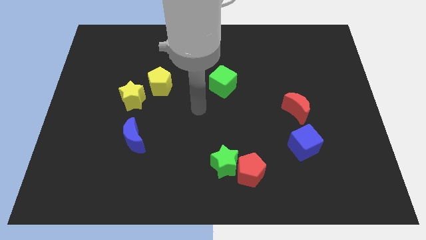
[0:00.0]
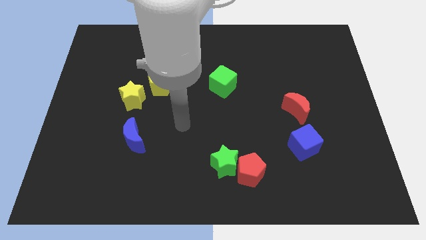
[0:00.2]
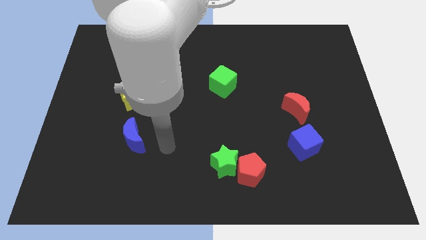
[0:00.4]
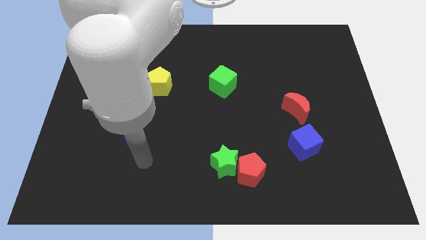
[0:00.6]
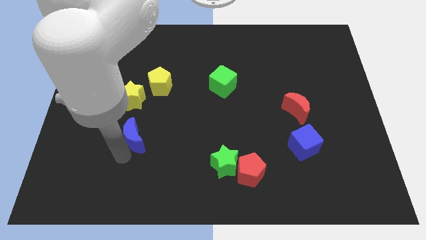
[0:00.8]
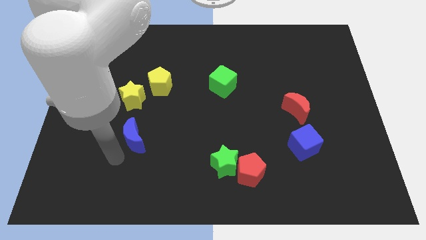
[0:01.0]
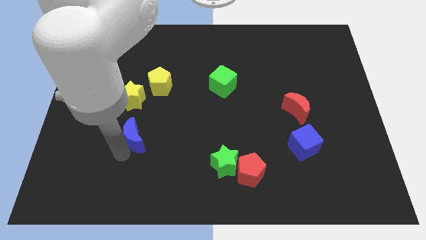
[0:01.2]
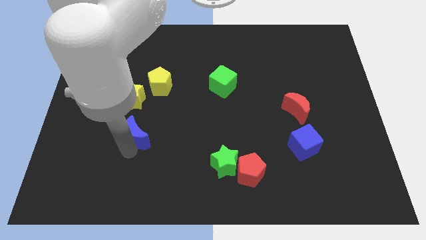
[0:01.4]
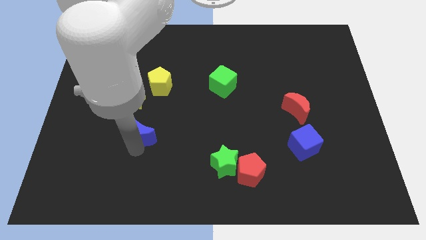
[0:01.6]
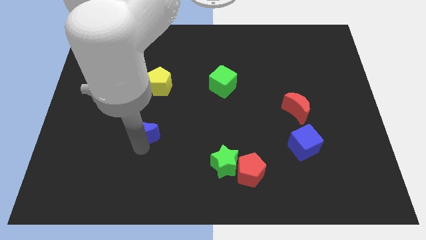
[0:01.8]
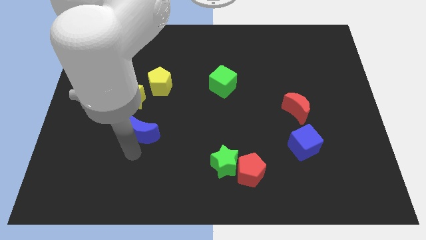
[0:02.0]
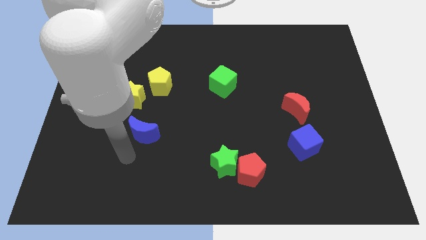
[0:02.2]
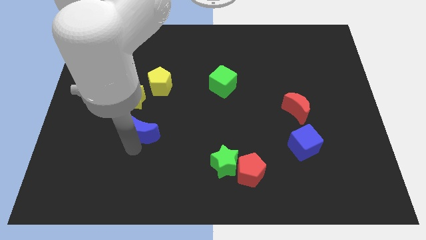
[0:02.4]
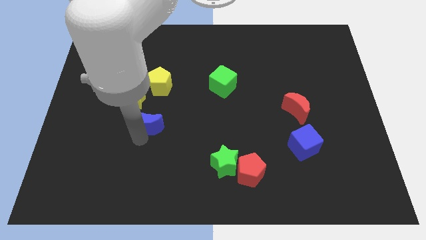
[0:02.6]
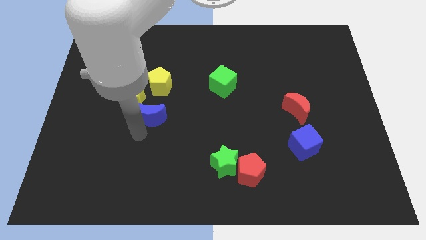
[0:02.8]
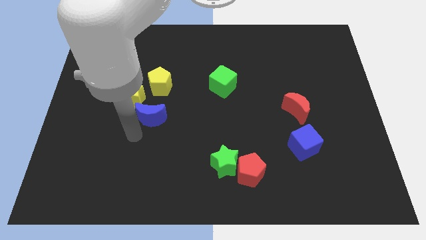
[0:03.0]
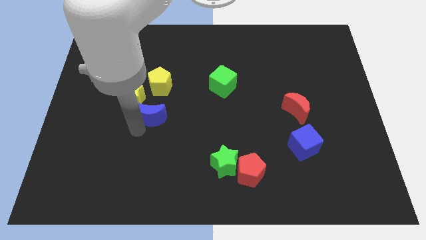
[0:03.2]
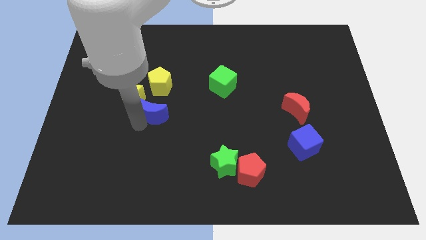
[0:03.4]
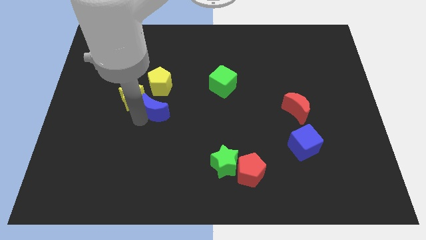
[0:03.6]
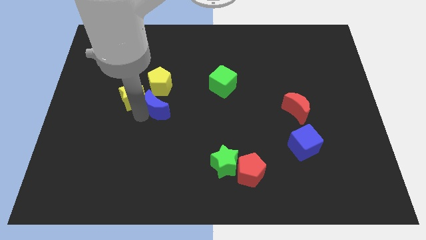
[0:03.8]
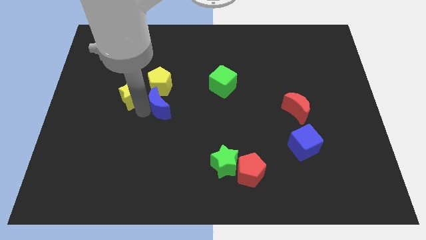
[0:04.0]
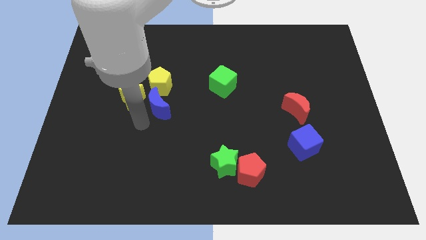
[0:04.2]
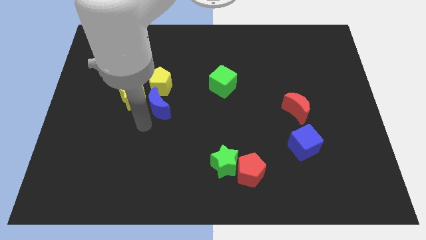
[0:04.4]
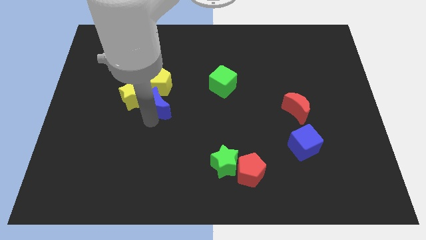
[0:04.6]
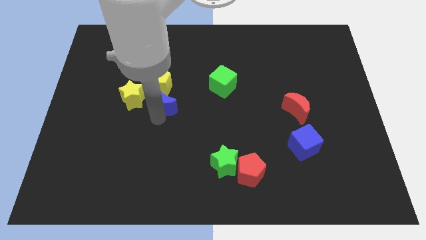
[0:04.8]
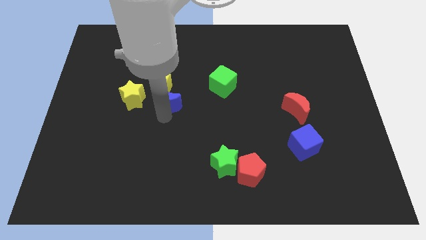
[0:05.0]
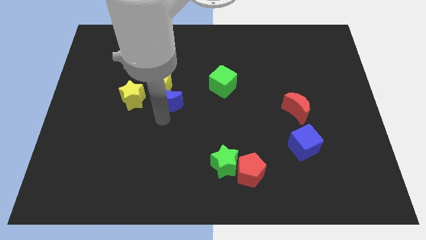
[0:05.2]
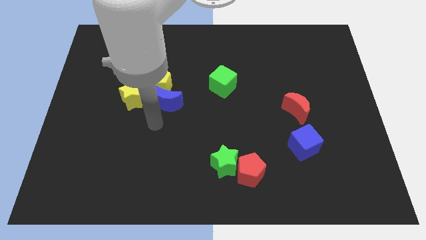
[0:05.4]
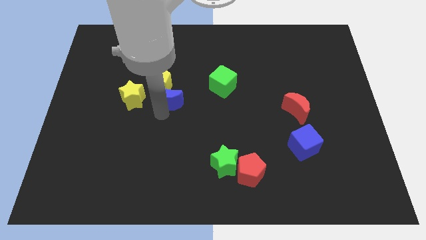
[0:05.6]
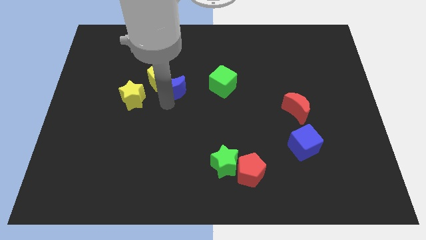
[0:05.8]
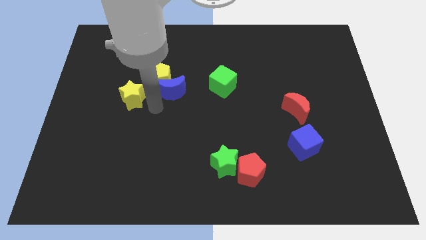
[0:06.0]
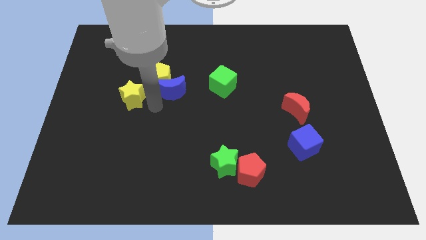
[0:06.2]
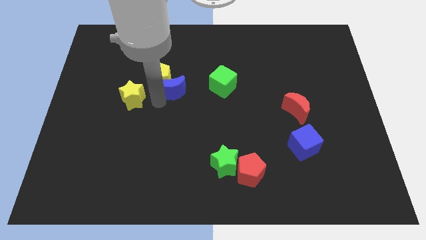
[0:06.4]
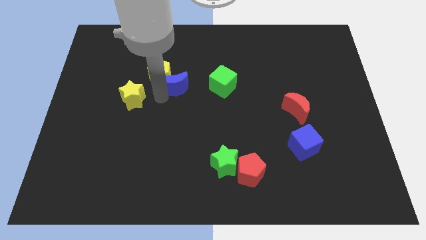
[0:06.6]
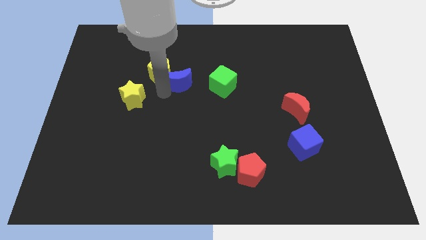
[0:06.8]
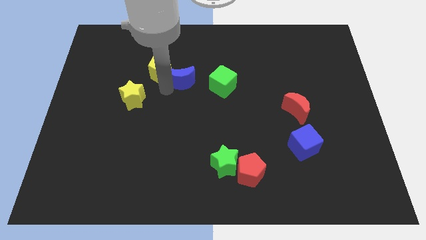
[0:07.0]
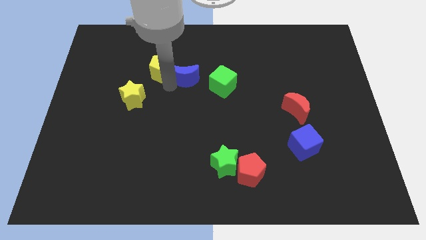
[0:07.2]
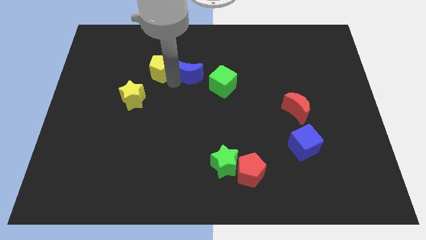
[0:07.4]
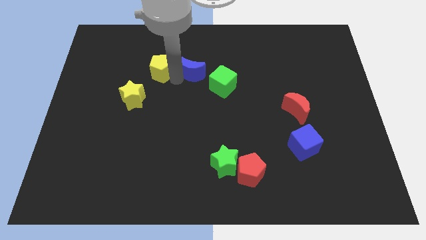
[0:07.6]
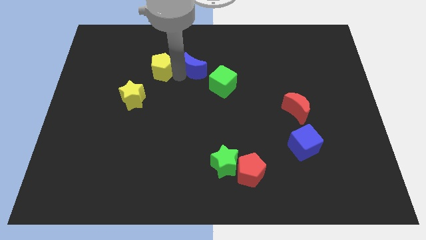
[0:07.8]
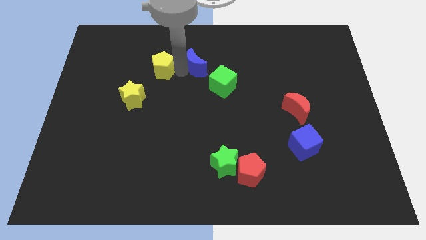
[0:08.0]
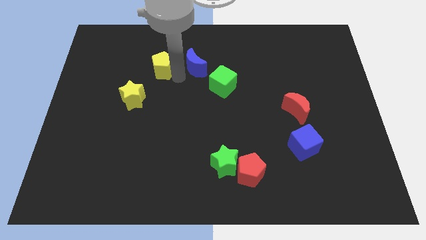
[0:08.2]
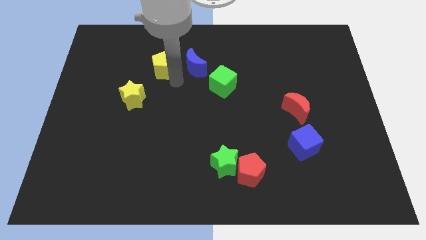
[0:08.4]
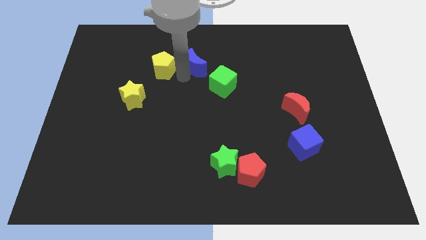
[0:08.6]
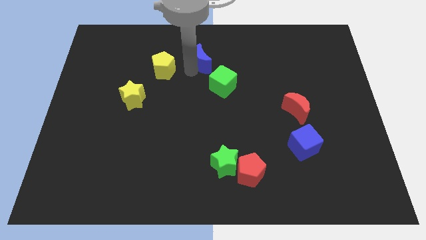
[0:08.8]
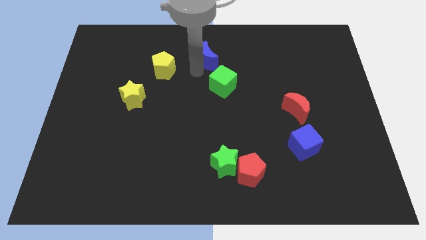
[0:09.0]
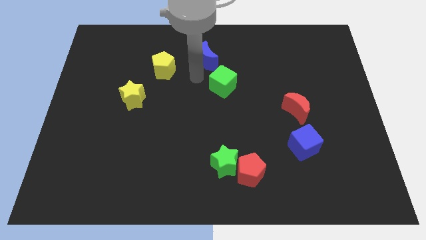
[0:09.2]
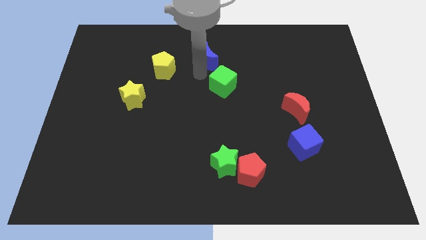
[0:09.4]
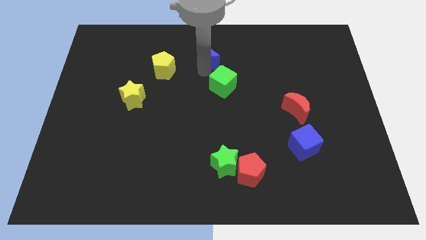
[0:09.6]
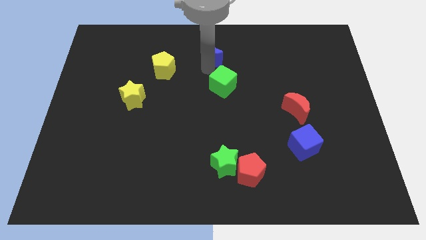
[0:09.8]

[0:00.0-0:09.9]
push the blue moon to the towards your base

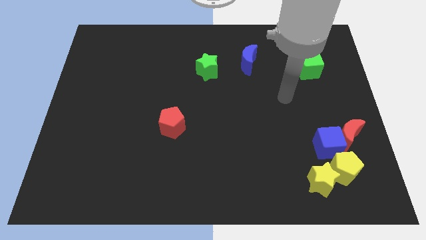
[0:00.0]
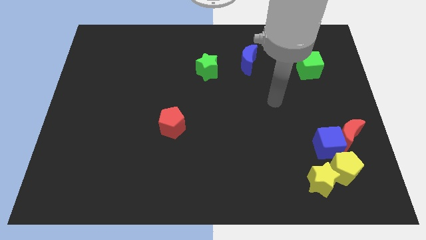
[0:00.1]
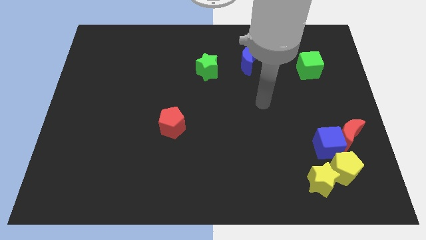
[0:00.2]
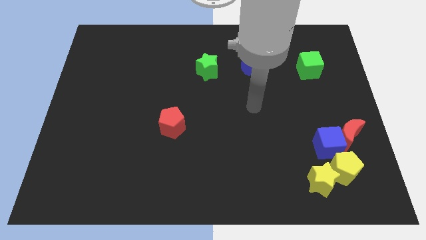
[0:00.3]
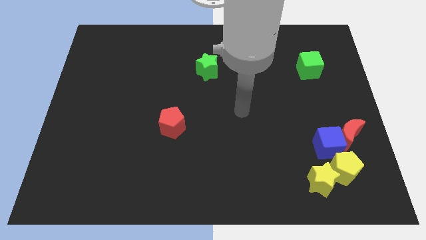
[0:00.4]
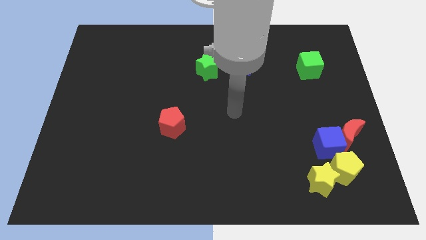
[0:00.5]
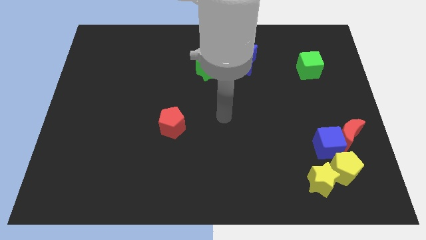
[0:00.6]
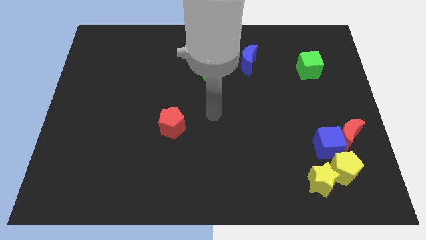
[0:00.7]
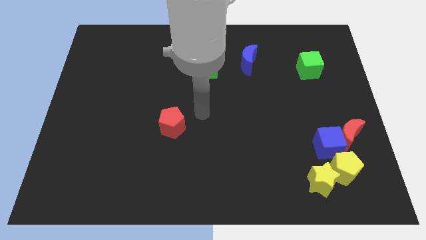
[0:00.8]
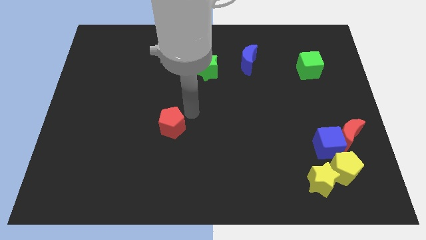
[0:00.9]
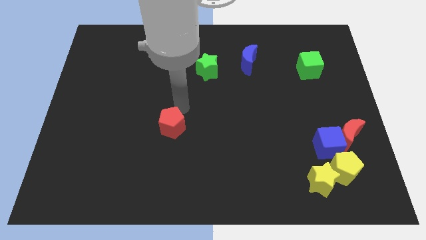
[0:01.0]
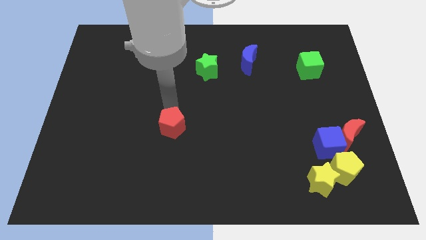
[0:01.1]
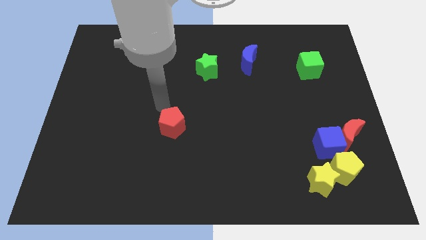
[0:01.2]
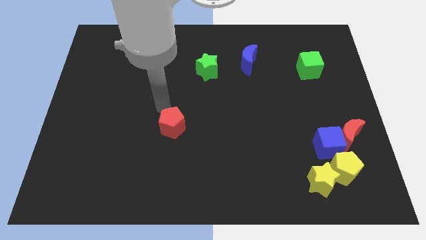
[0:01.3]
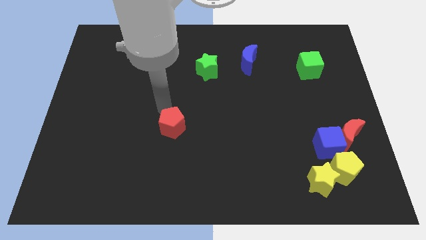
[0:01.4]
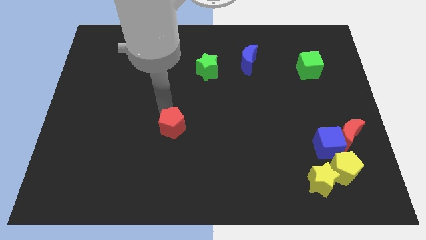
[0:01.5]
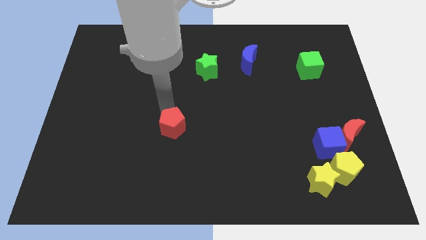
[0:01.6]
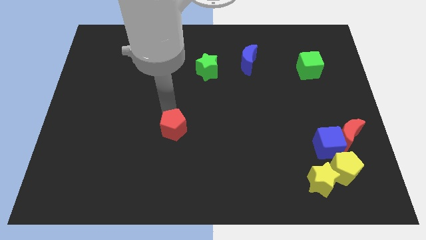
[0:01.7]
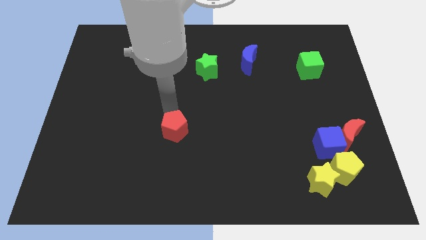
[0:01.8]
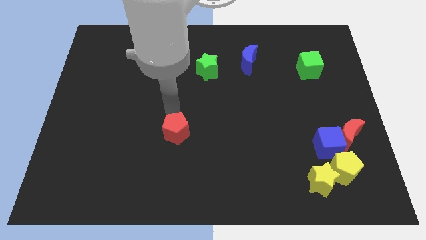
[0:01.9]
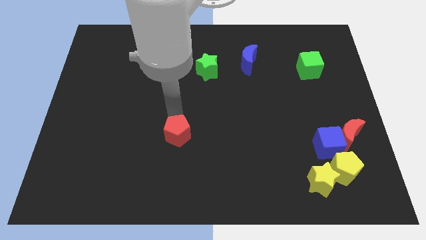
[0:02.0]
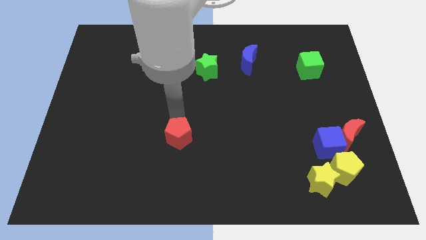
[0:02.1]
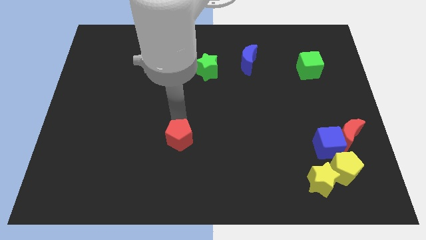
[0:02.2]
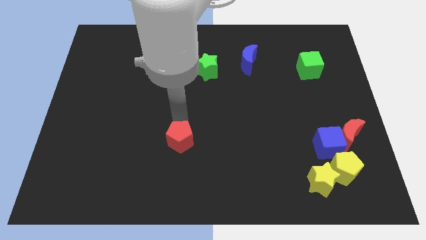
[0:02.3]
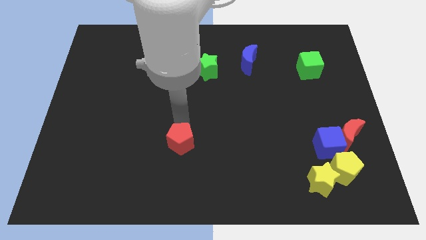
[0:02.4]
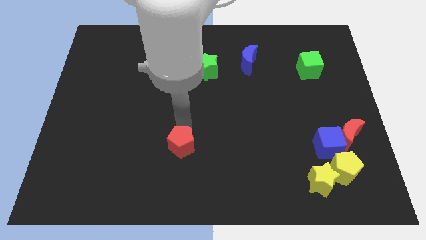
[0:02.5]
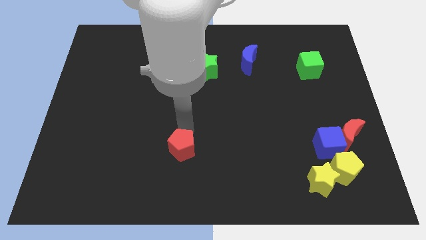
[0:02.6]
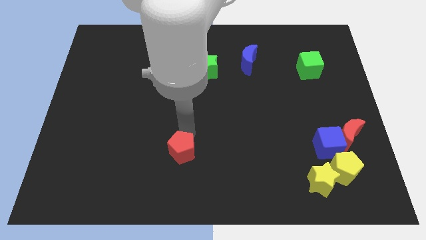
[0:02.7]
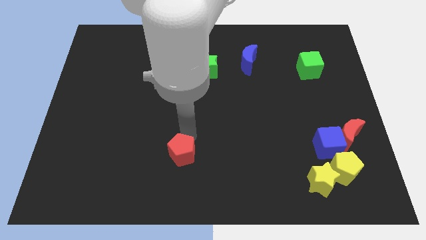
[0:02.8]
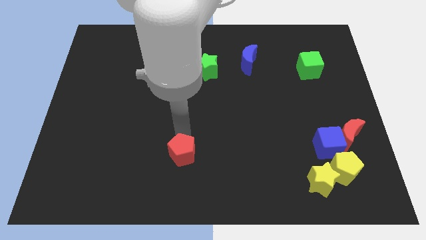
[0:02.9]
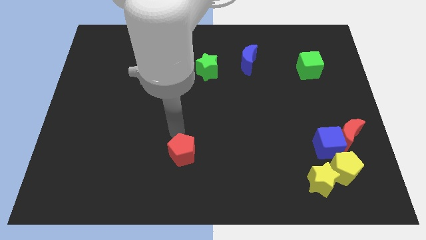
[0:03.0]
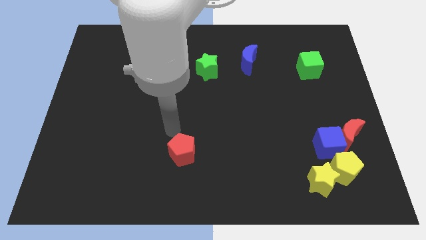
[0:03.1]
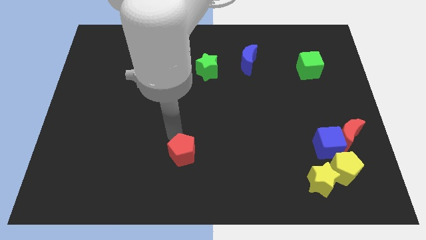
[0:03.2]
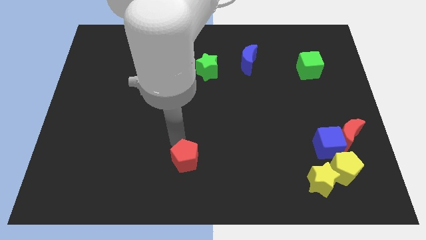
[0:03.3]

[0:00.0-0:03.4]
put the red pentagon to the bottom side
